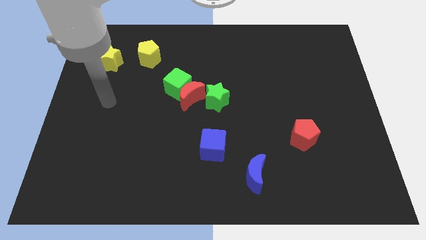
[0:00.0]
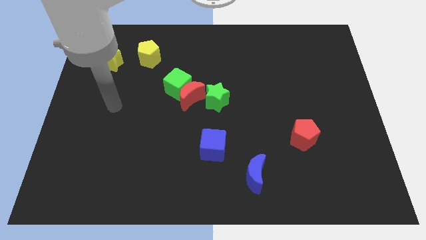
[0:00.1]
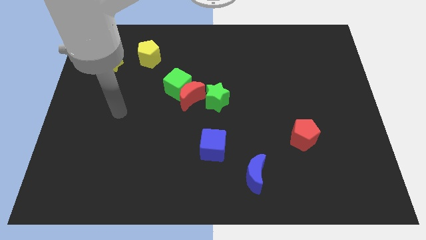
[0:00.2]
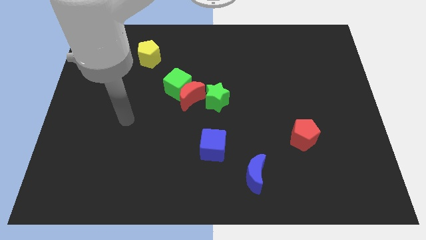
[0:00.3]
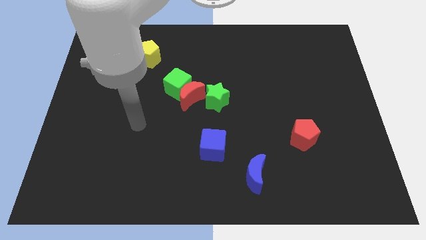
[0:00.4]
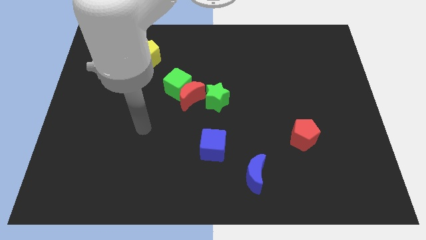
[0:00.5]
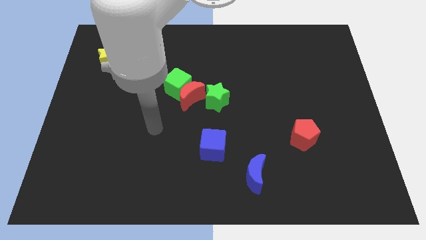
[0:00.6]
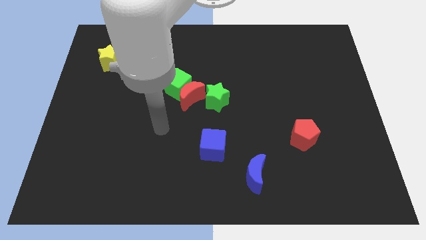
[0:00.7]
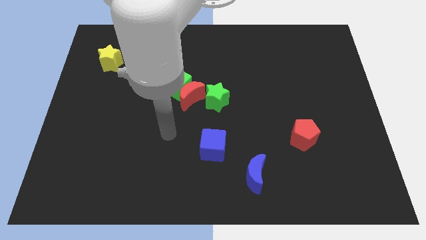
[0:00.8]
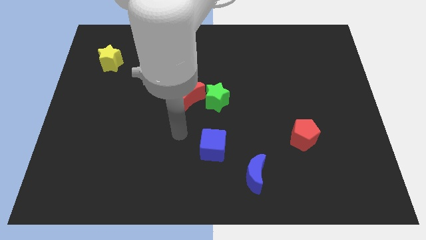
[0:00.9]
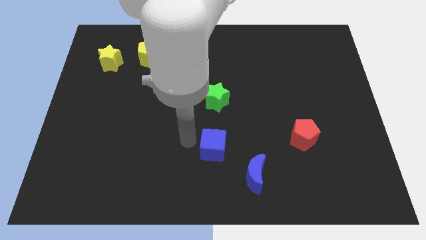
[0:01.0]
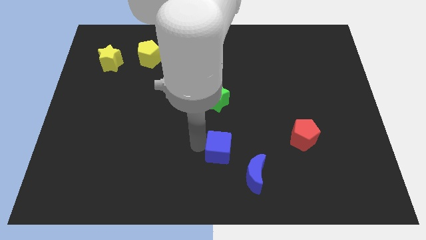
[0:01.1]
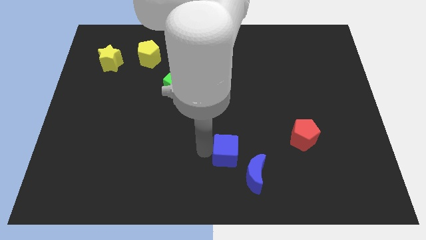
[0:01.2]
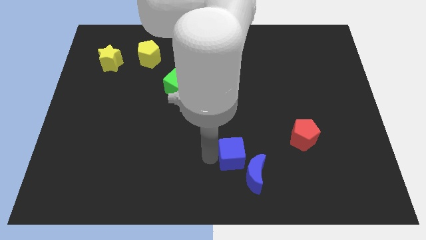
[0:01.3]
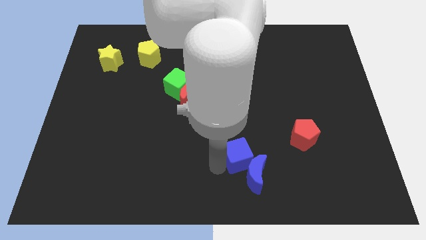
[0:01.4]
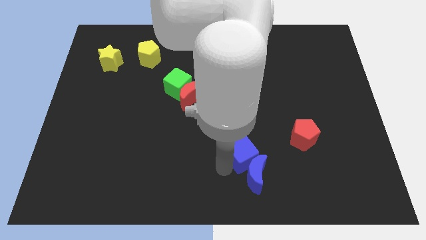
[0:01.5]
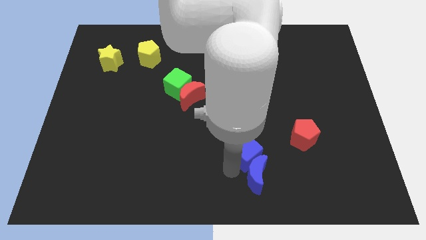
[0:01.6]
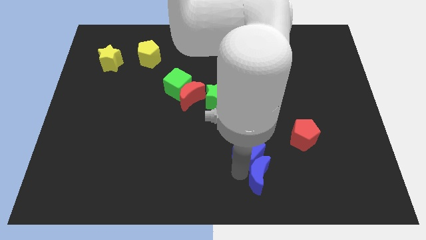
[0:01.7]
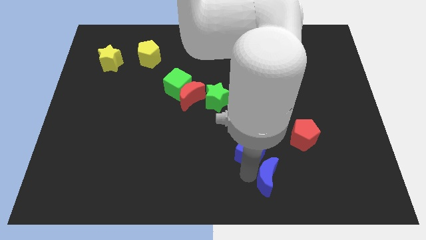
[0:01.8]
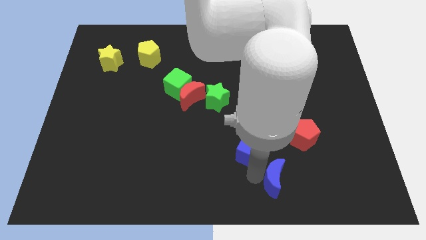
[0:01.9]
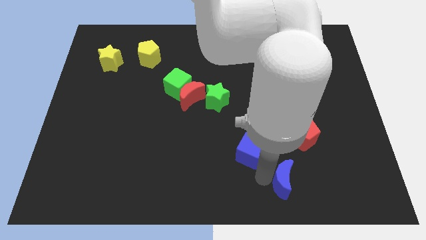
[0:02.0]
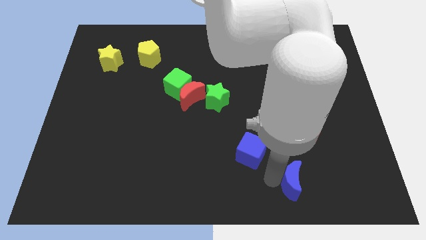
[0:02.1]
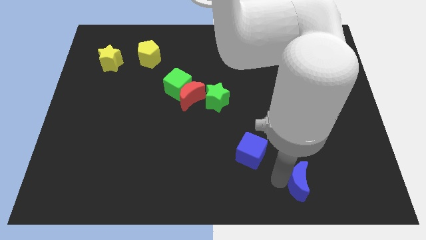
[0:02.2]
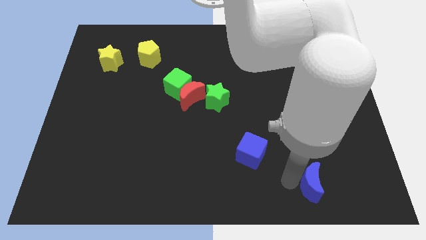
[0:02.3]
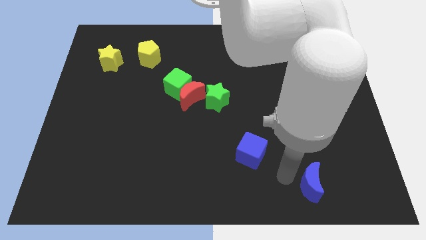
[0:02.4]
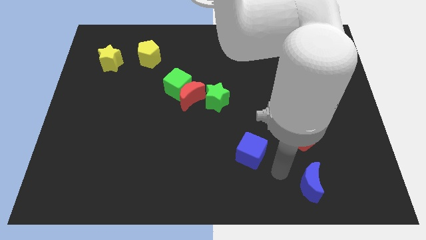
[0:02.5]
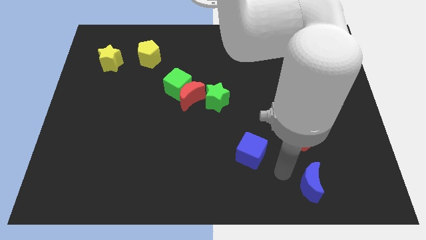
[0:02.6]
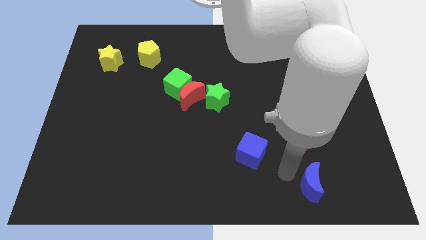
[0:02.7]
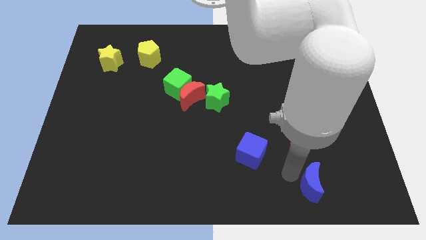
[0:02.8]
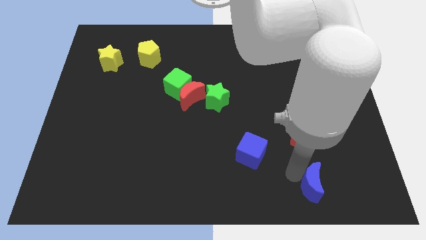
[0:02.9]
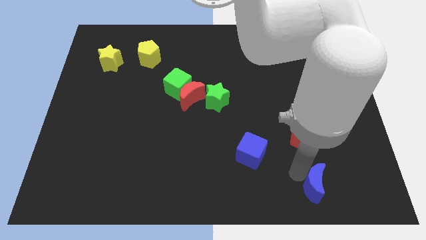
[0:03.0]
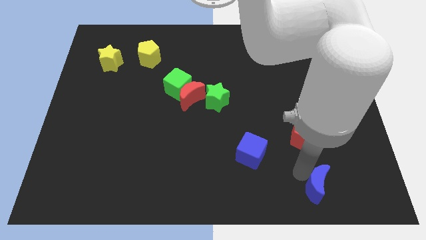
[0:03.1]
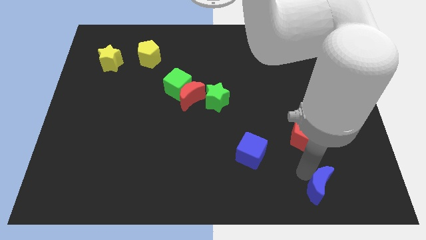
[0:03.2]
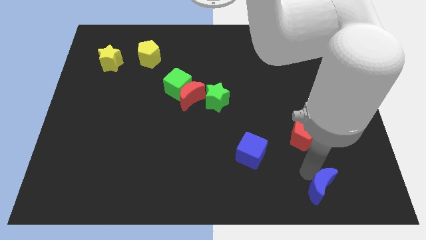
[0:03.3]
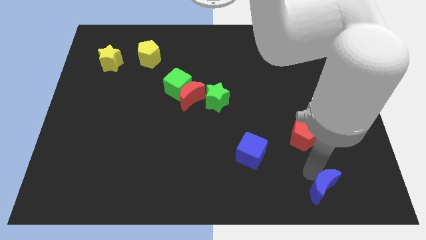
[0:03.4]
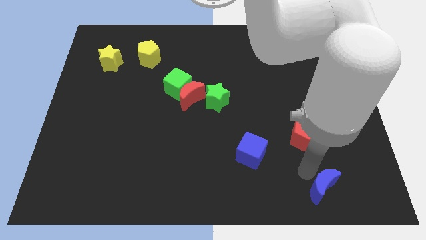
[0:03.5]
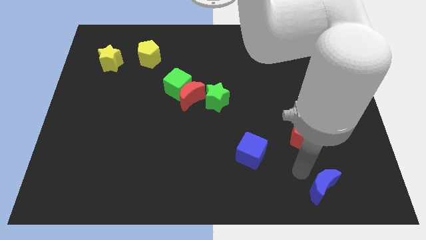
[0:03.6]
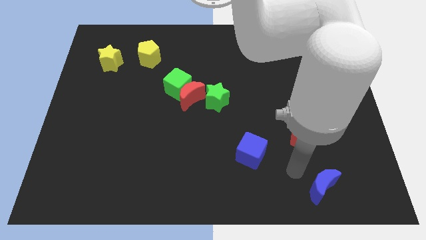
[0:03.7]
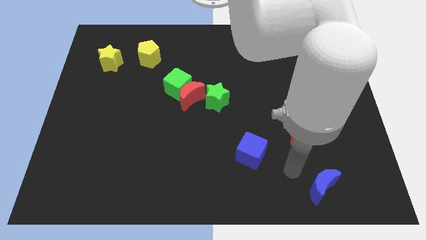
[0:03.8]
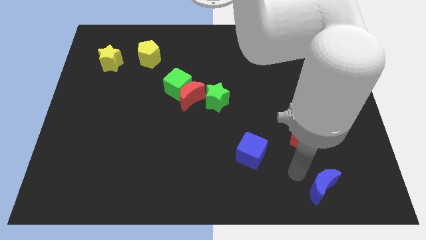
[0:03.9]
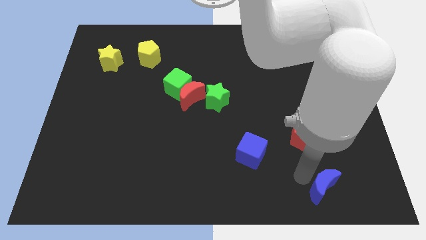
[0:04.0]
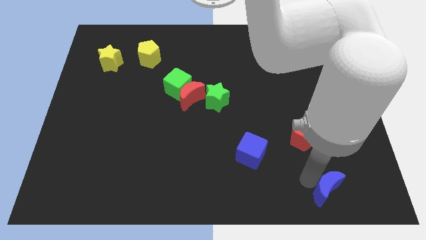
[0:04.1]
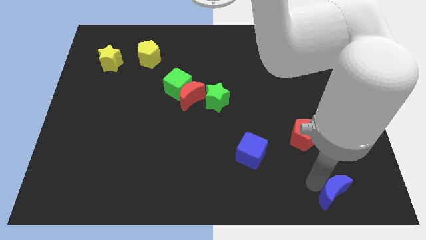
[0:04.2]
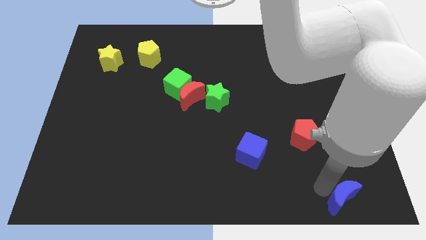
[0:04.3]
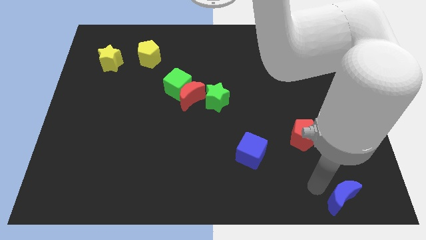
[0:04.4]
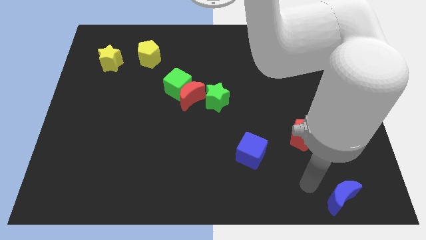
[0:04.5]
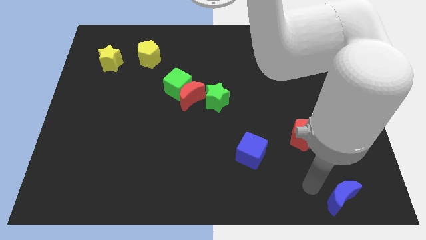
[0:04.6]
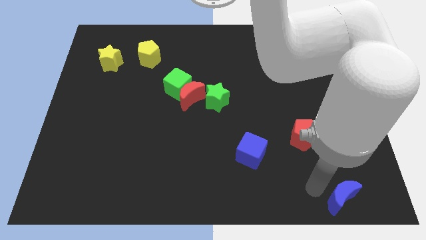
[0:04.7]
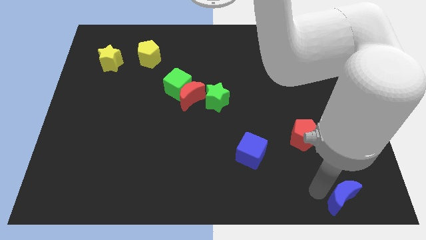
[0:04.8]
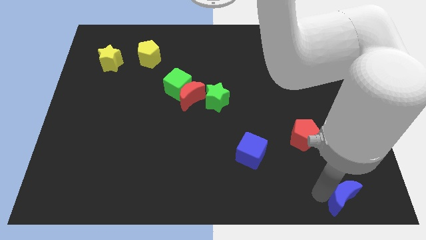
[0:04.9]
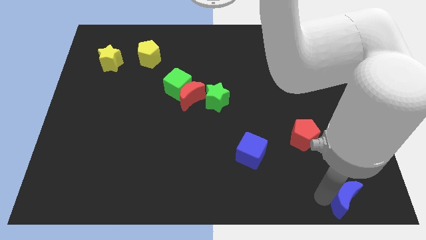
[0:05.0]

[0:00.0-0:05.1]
push the blue moon to the bottom right corner

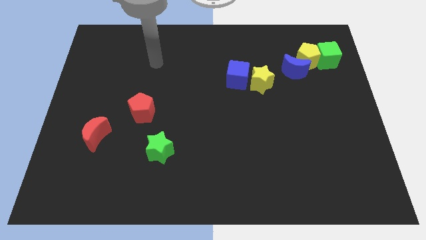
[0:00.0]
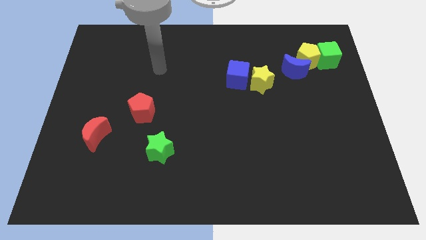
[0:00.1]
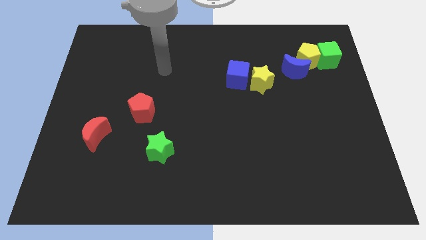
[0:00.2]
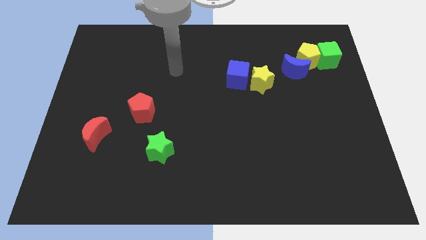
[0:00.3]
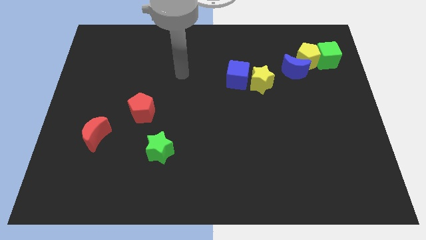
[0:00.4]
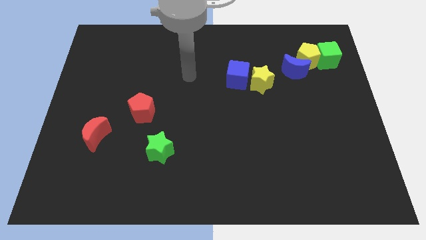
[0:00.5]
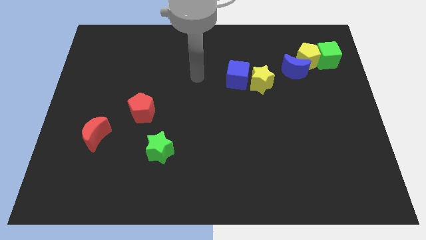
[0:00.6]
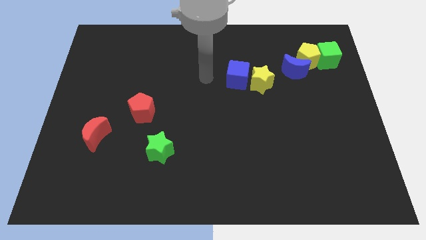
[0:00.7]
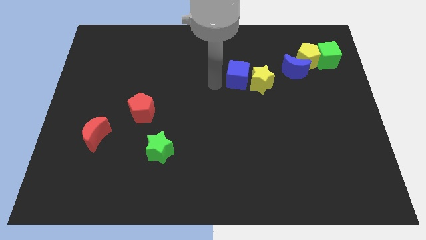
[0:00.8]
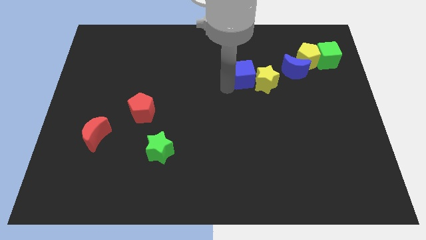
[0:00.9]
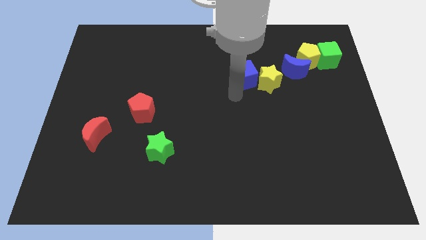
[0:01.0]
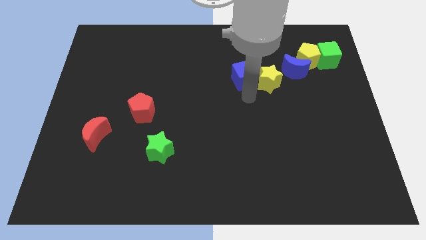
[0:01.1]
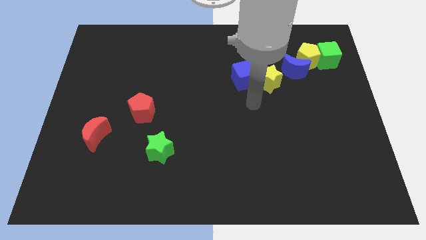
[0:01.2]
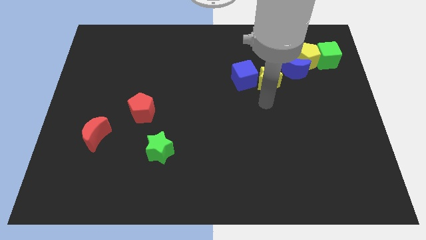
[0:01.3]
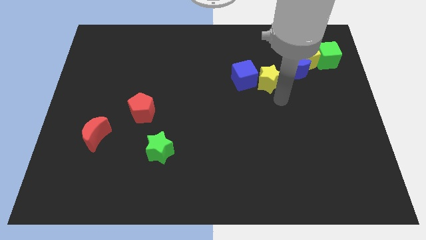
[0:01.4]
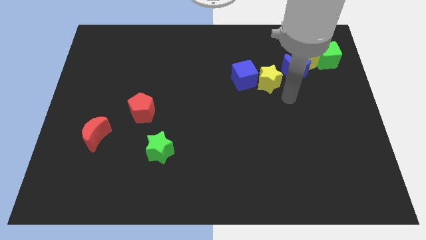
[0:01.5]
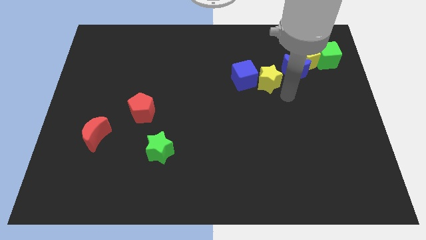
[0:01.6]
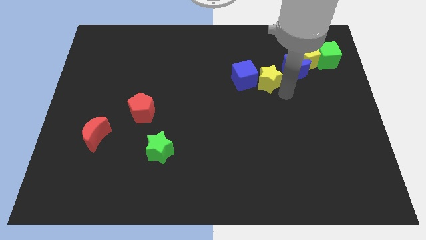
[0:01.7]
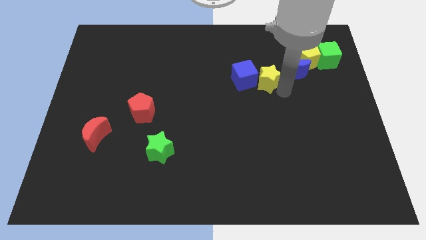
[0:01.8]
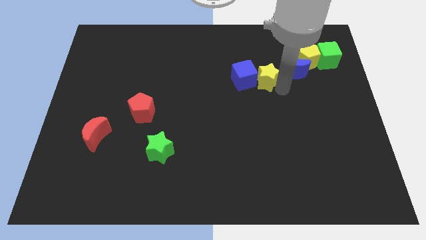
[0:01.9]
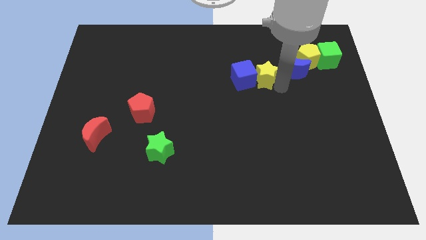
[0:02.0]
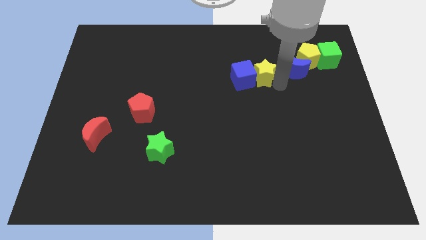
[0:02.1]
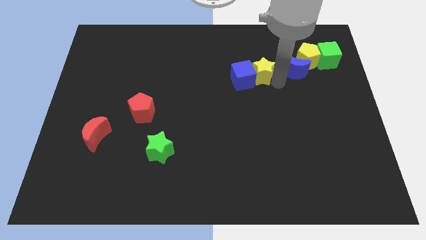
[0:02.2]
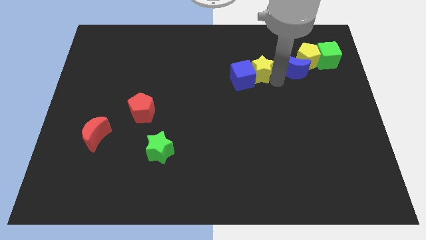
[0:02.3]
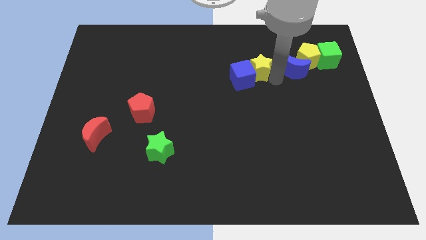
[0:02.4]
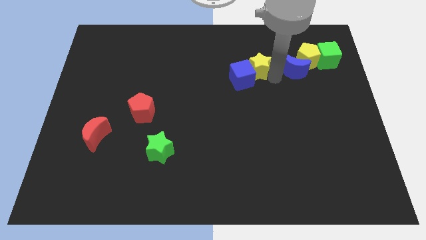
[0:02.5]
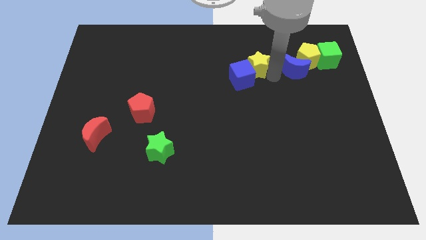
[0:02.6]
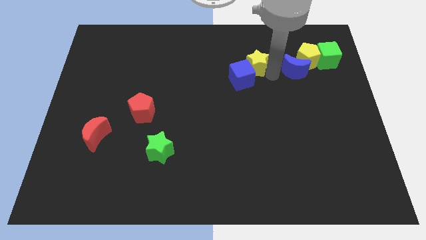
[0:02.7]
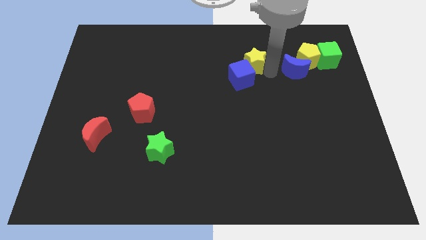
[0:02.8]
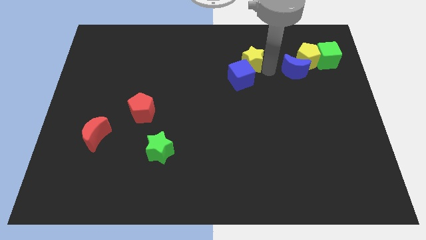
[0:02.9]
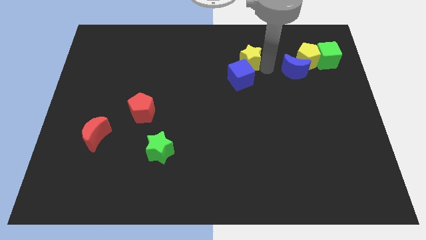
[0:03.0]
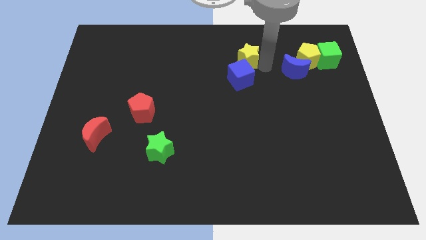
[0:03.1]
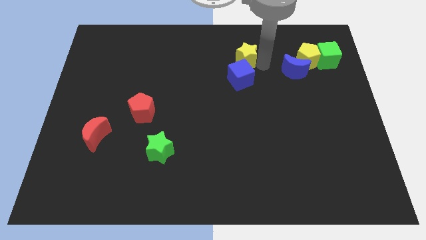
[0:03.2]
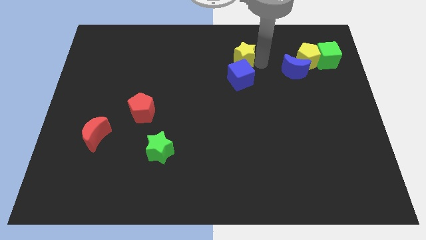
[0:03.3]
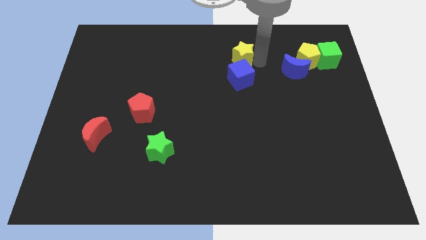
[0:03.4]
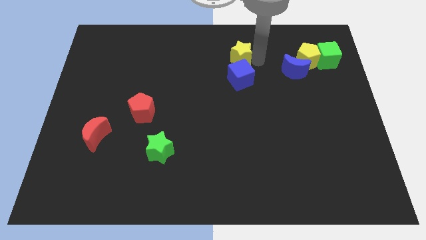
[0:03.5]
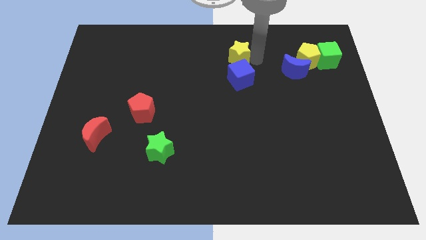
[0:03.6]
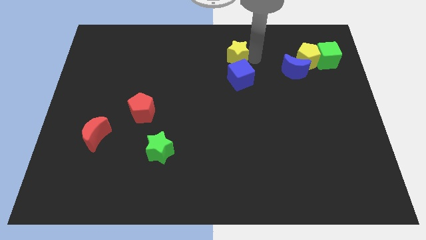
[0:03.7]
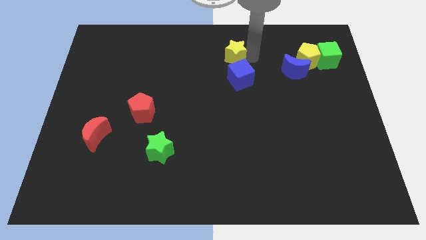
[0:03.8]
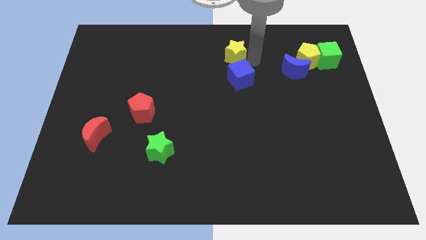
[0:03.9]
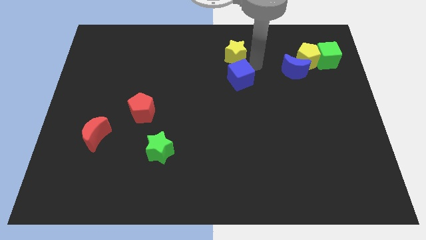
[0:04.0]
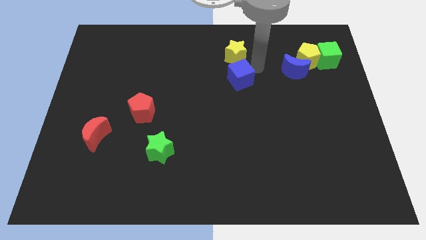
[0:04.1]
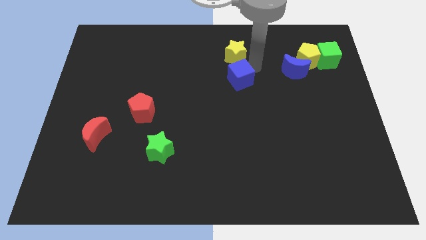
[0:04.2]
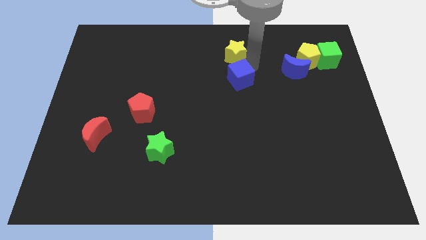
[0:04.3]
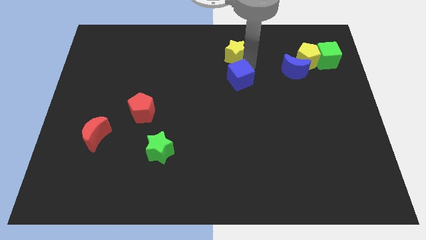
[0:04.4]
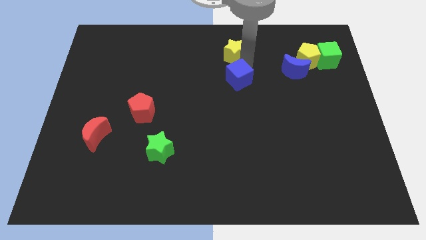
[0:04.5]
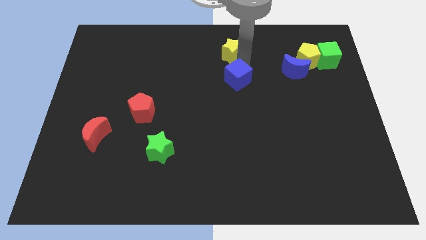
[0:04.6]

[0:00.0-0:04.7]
slide the yellow star to the top side
